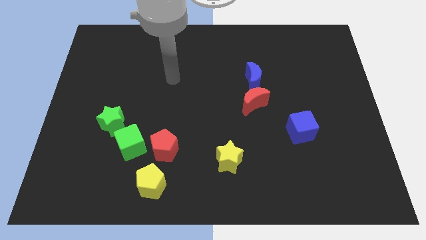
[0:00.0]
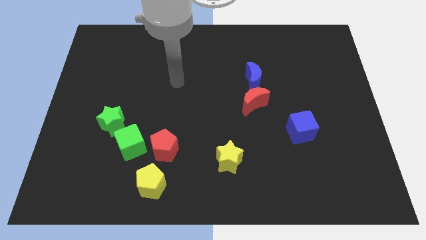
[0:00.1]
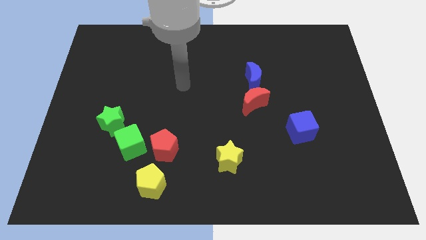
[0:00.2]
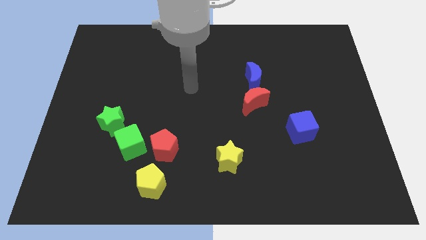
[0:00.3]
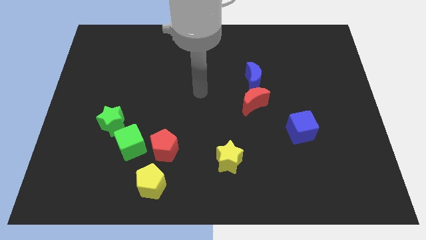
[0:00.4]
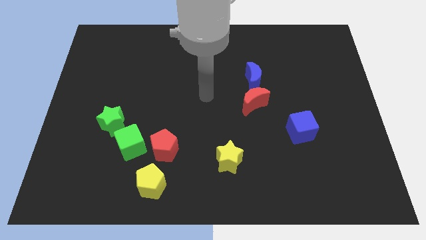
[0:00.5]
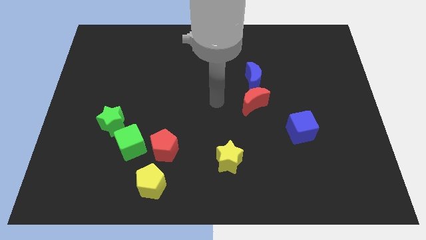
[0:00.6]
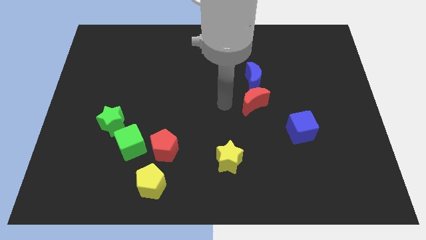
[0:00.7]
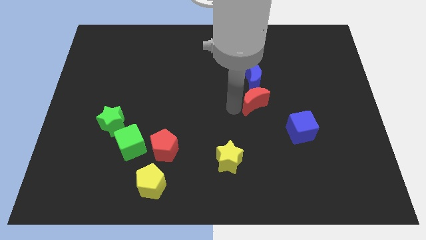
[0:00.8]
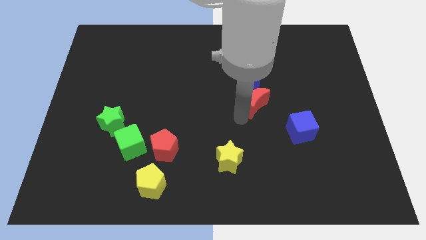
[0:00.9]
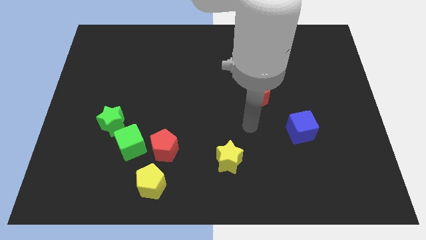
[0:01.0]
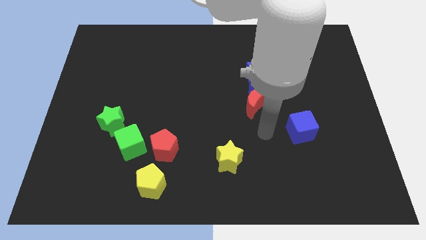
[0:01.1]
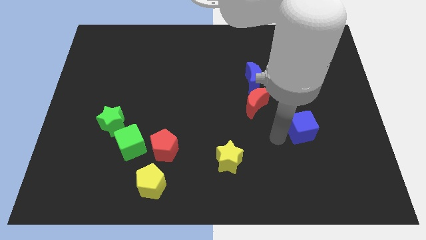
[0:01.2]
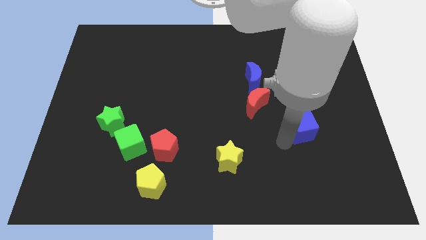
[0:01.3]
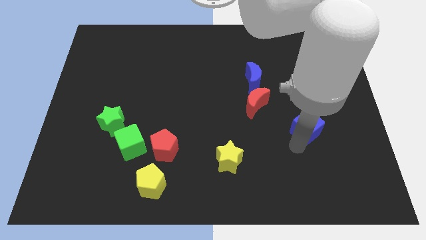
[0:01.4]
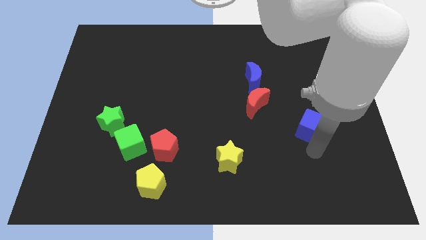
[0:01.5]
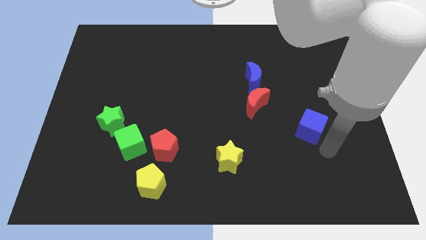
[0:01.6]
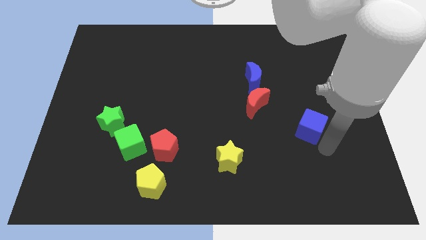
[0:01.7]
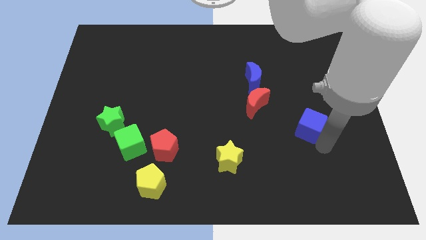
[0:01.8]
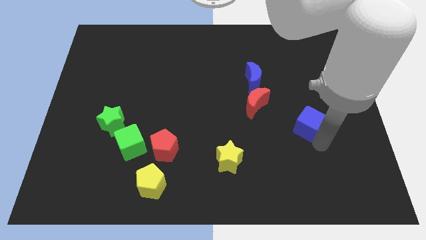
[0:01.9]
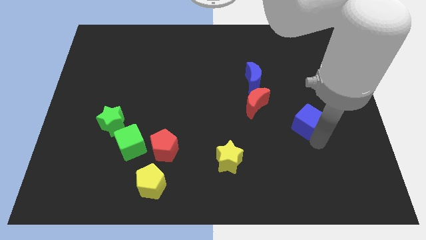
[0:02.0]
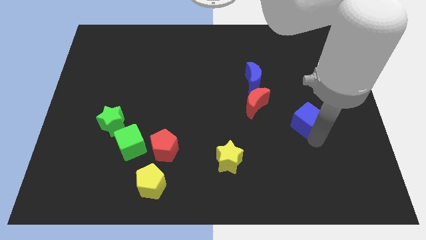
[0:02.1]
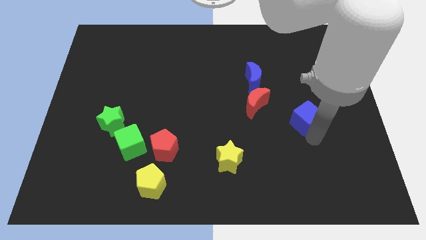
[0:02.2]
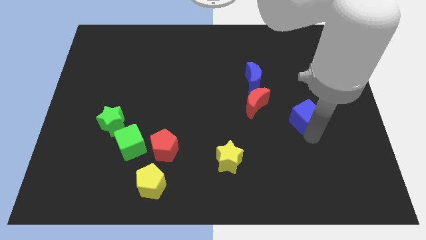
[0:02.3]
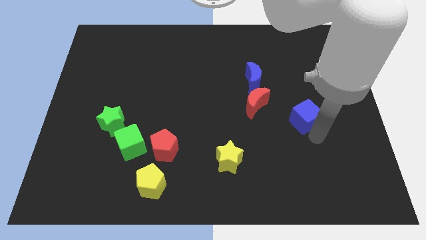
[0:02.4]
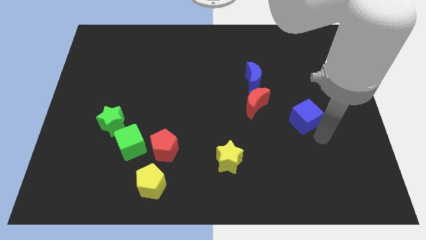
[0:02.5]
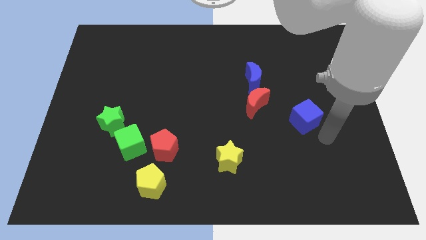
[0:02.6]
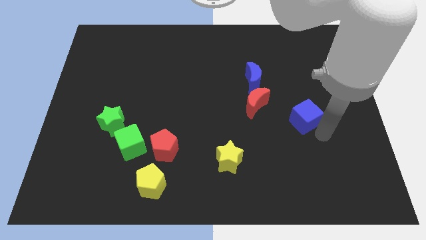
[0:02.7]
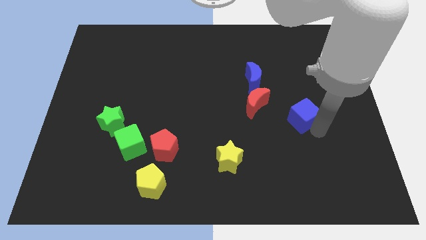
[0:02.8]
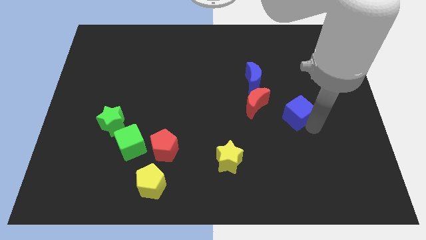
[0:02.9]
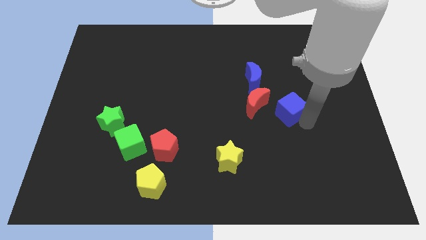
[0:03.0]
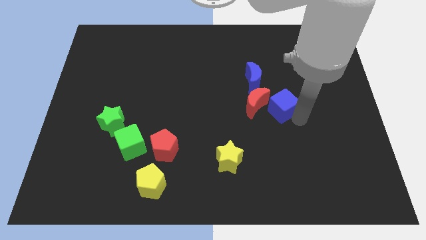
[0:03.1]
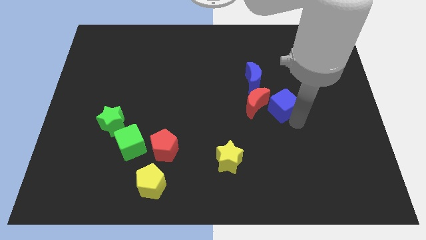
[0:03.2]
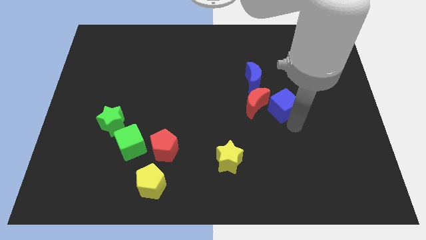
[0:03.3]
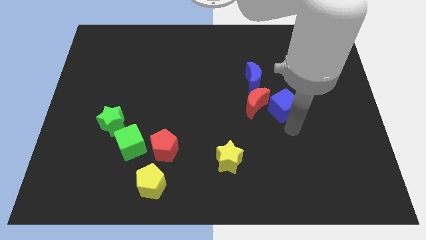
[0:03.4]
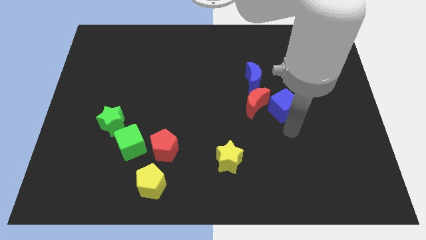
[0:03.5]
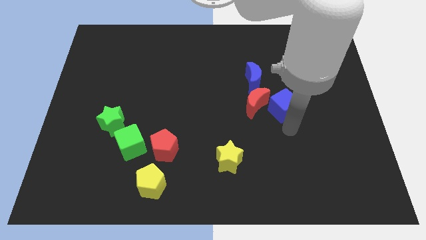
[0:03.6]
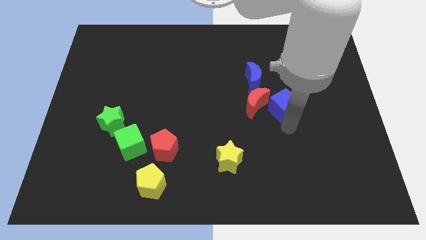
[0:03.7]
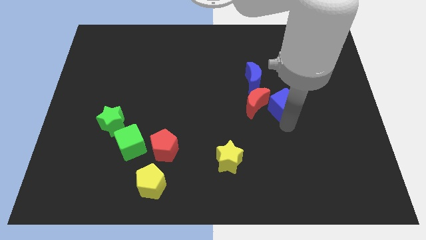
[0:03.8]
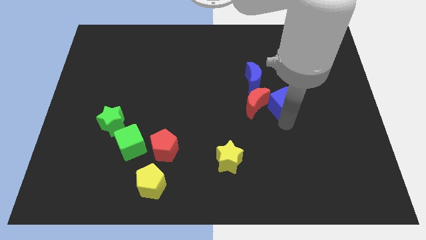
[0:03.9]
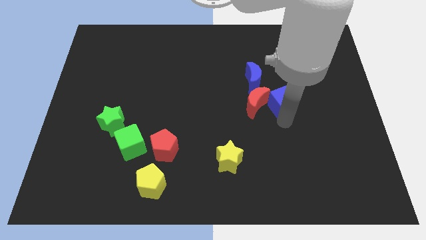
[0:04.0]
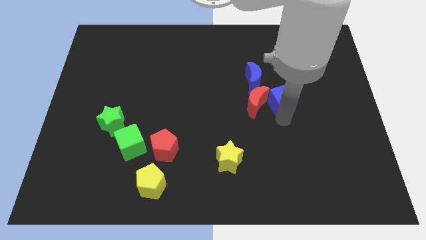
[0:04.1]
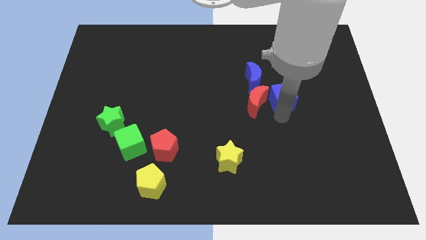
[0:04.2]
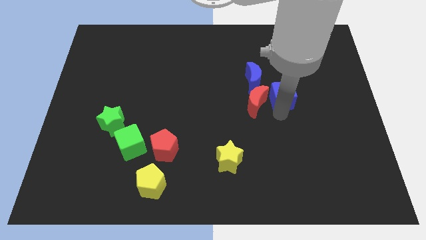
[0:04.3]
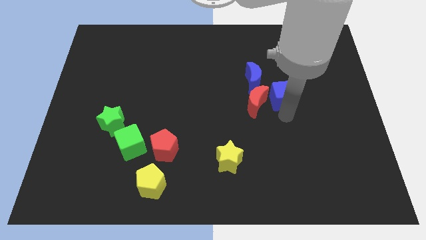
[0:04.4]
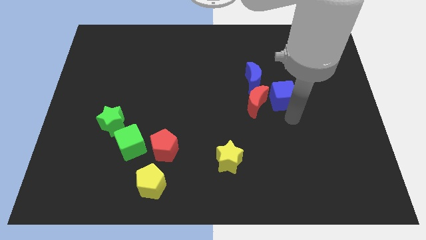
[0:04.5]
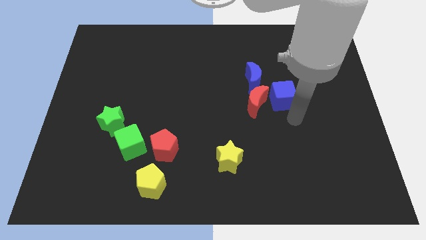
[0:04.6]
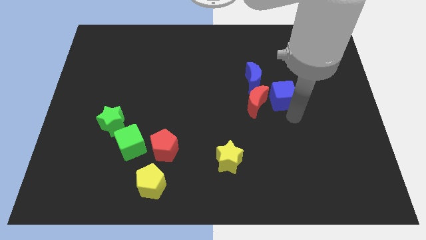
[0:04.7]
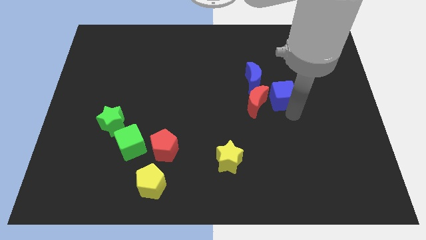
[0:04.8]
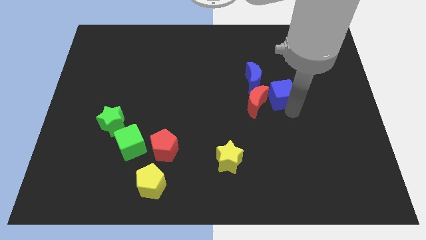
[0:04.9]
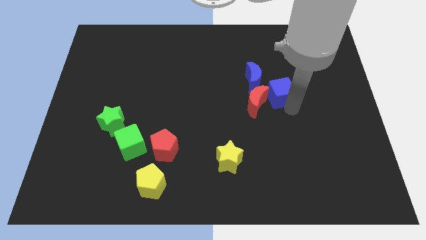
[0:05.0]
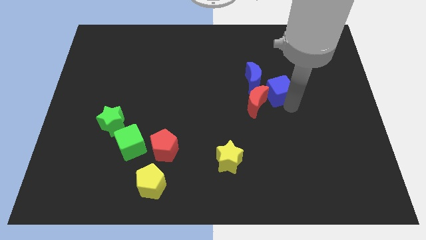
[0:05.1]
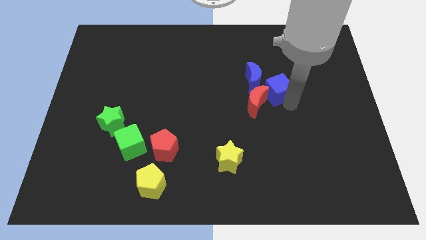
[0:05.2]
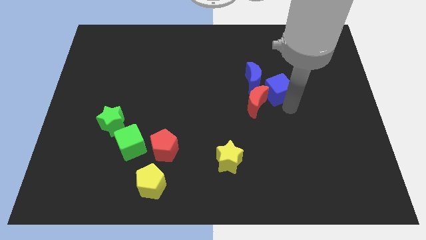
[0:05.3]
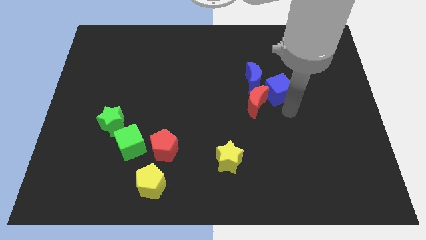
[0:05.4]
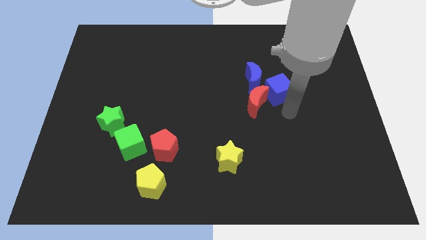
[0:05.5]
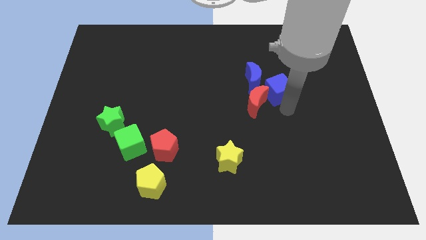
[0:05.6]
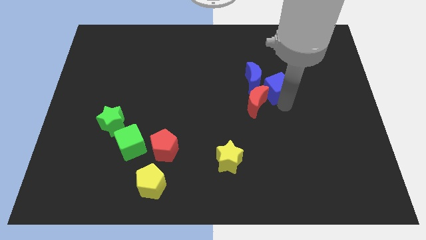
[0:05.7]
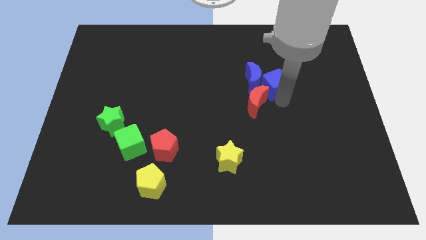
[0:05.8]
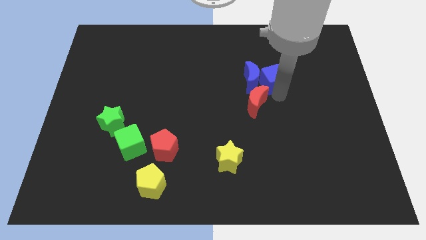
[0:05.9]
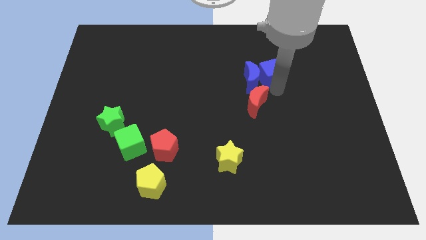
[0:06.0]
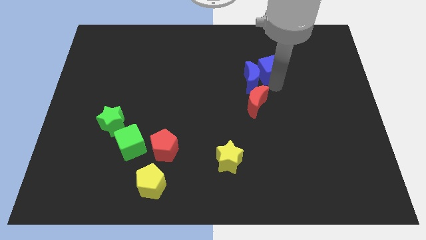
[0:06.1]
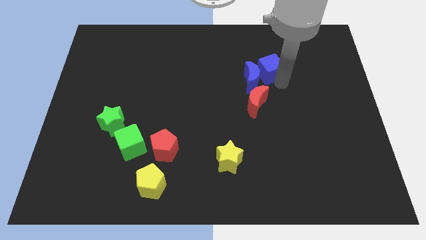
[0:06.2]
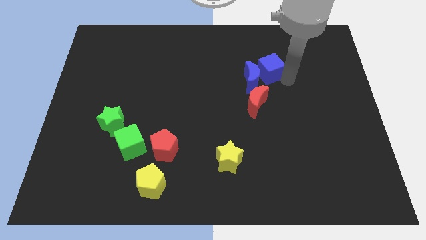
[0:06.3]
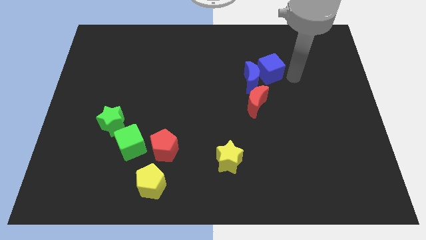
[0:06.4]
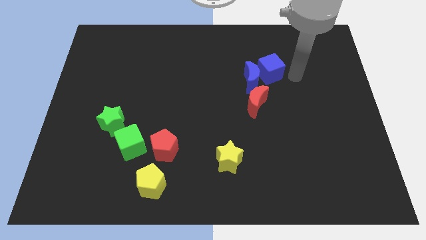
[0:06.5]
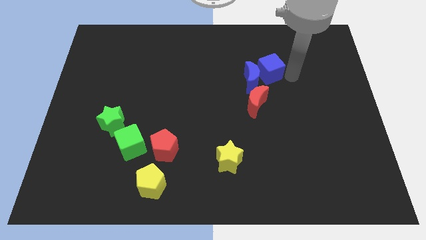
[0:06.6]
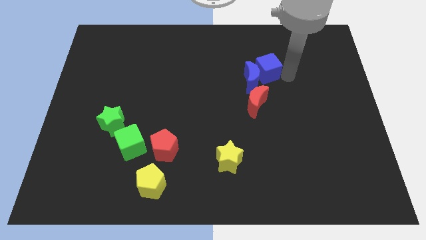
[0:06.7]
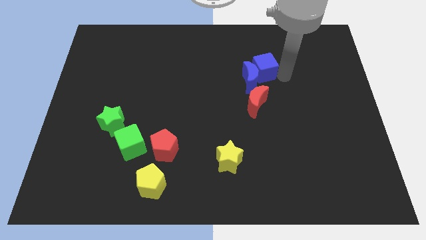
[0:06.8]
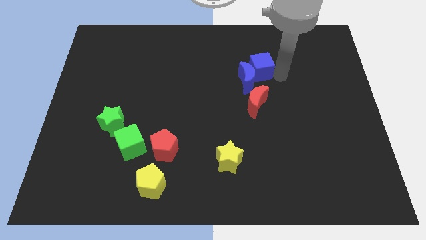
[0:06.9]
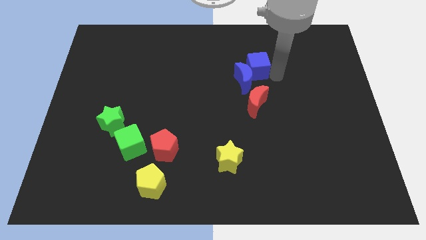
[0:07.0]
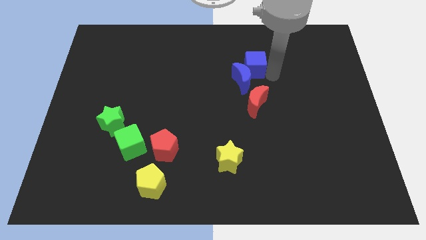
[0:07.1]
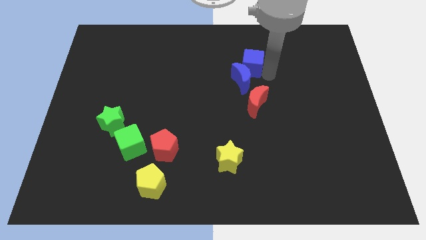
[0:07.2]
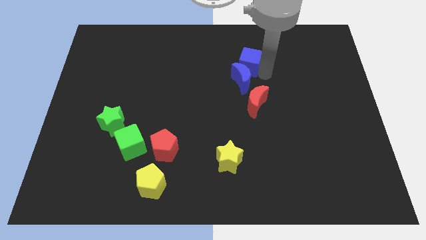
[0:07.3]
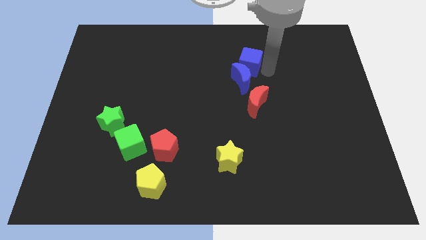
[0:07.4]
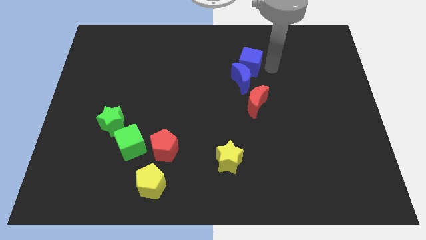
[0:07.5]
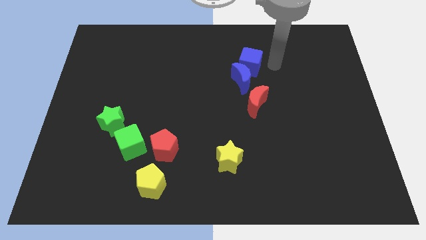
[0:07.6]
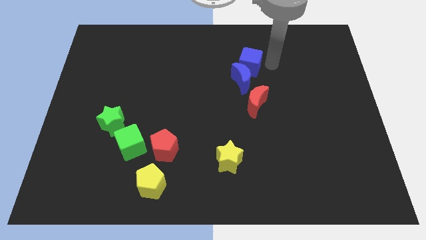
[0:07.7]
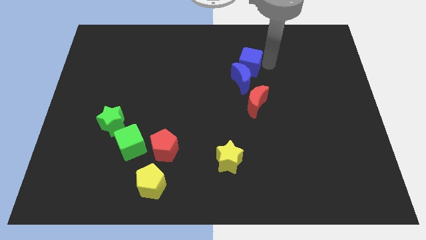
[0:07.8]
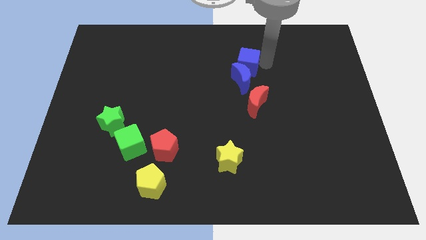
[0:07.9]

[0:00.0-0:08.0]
slide the blue cube to the top left of the blue moon
